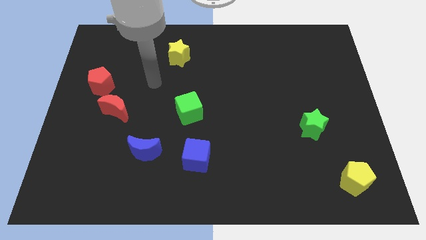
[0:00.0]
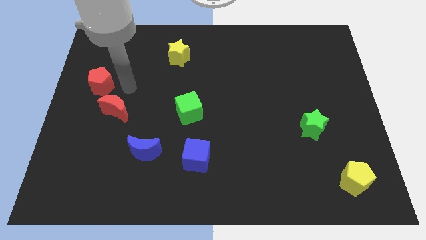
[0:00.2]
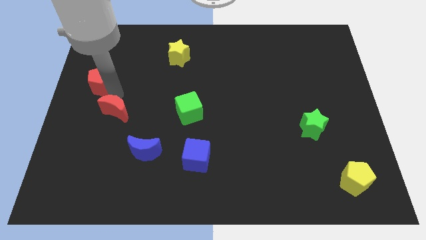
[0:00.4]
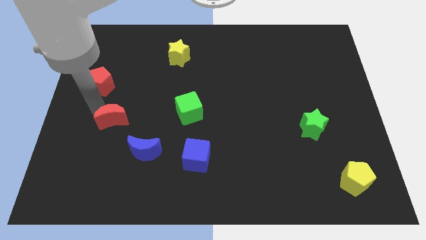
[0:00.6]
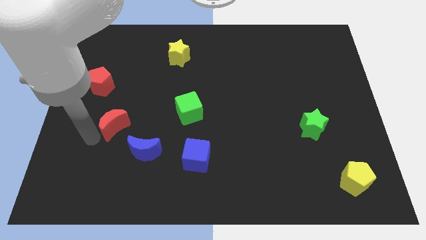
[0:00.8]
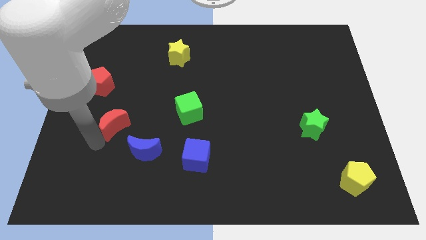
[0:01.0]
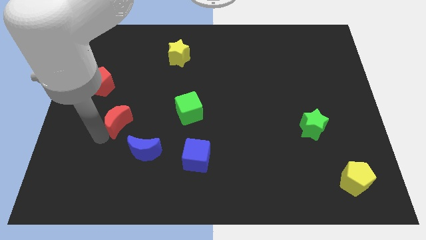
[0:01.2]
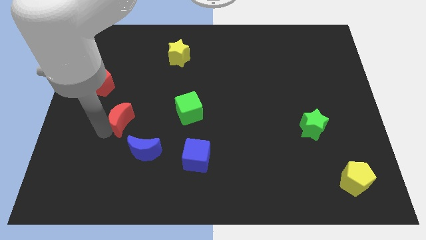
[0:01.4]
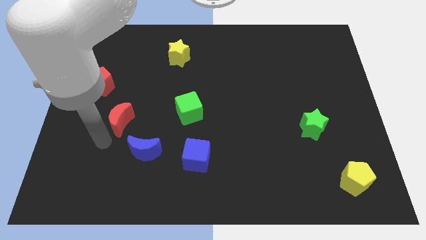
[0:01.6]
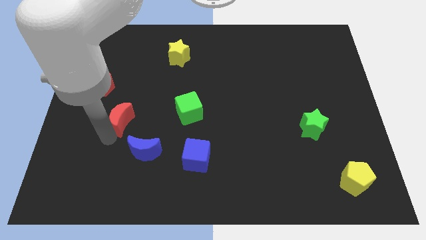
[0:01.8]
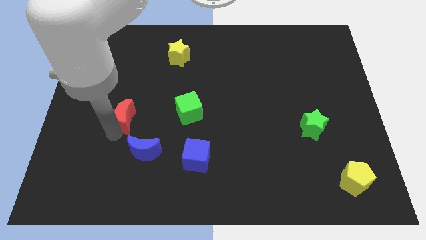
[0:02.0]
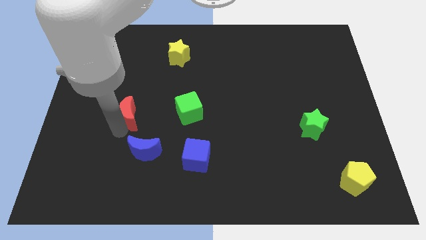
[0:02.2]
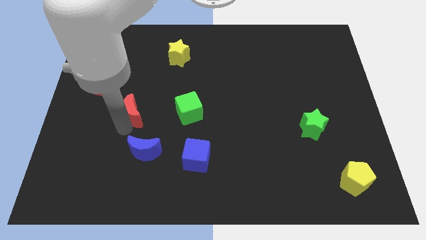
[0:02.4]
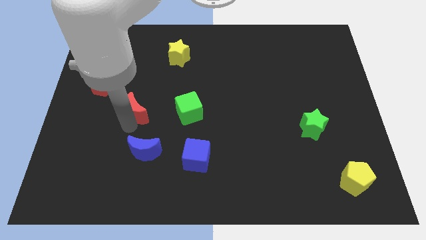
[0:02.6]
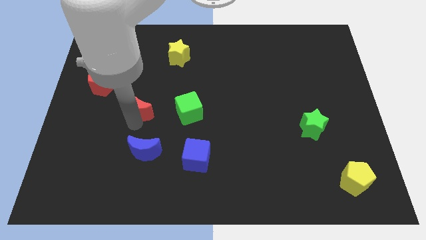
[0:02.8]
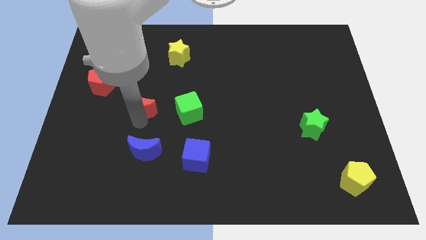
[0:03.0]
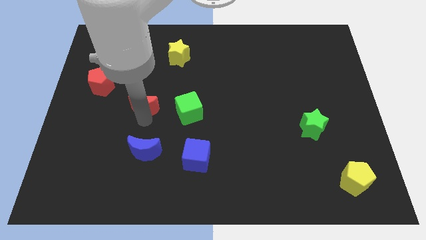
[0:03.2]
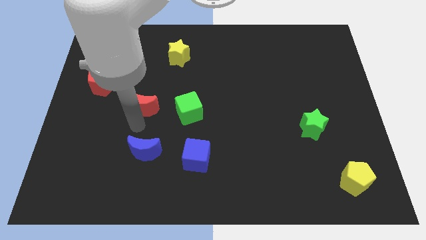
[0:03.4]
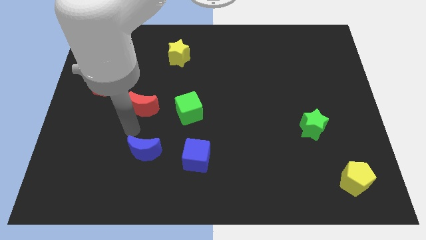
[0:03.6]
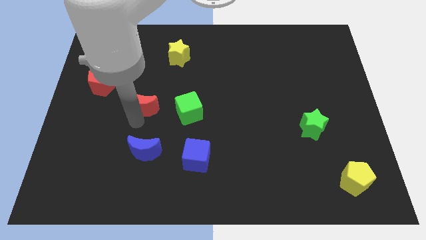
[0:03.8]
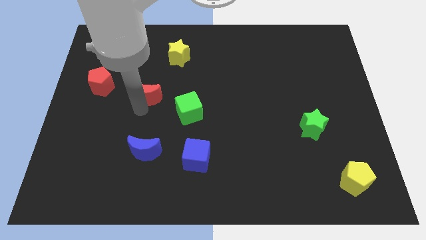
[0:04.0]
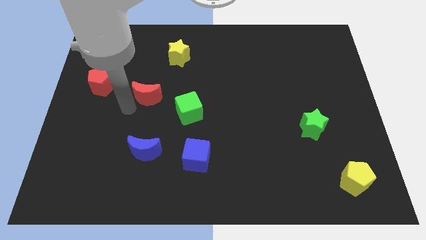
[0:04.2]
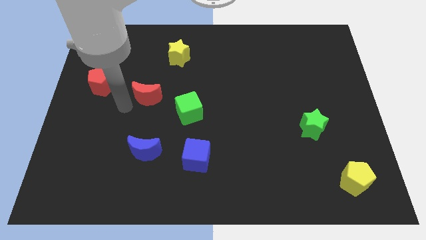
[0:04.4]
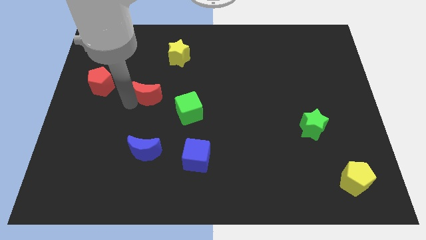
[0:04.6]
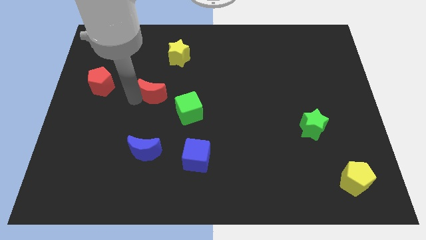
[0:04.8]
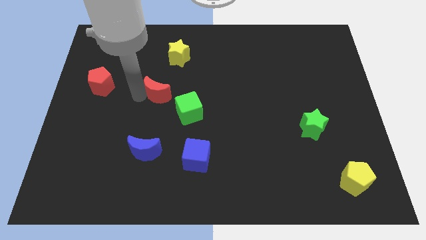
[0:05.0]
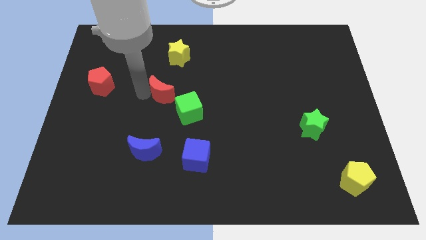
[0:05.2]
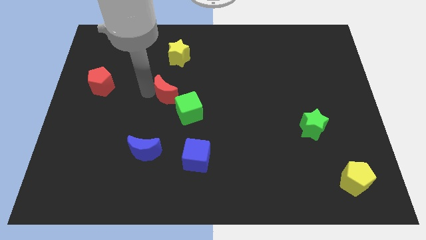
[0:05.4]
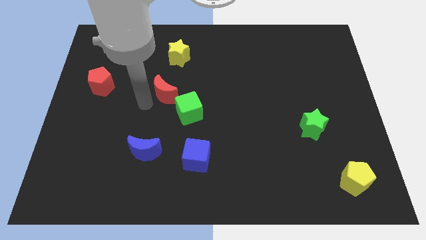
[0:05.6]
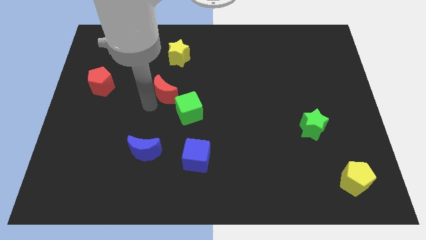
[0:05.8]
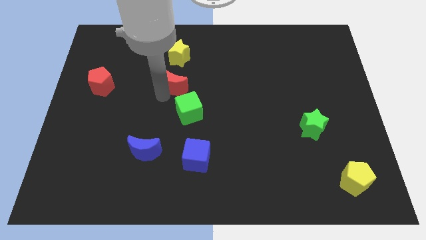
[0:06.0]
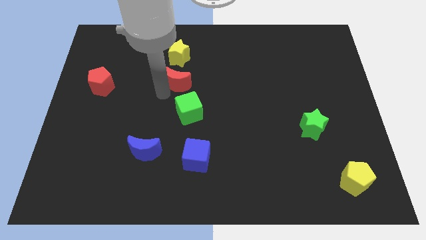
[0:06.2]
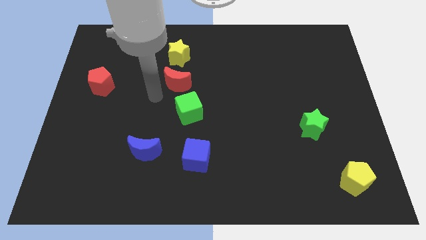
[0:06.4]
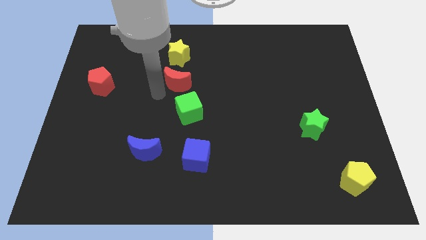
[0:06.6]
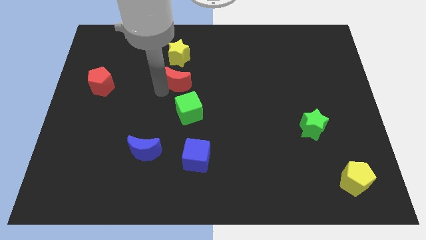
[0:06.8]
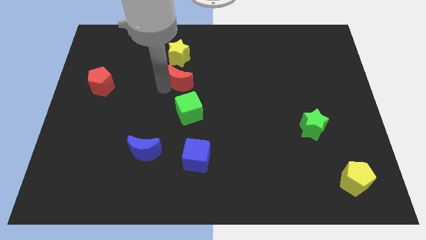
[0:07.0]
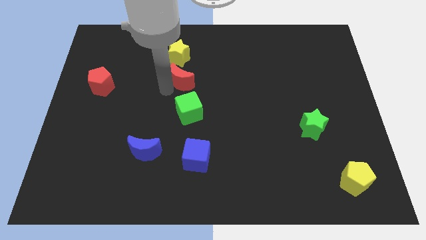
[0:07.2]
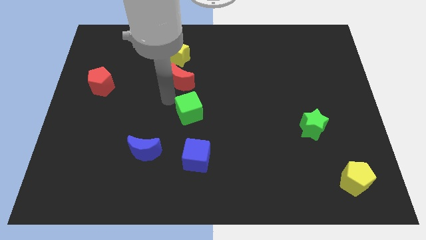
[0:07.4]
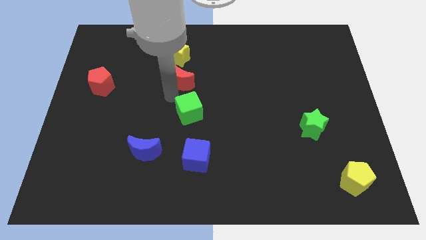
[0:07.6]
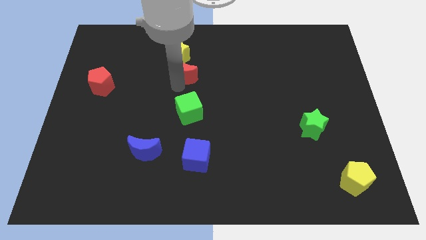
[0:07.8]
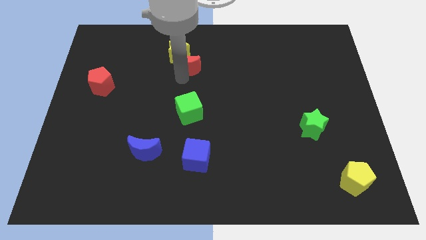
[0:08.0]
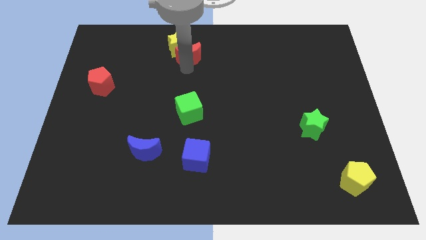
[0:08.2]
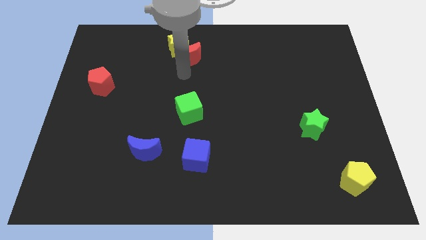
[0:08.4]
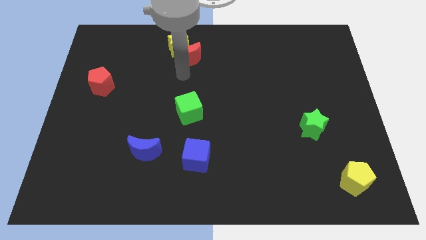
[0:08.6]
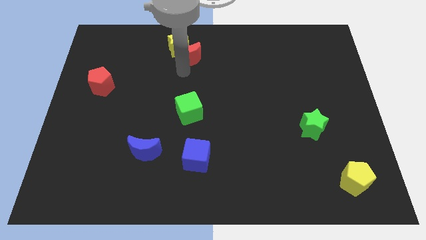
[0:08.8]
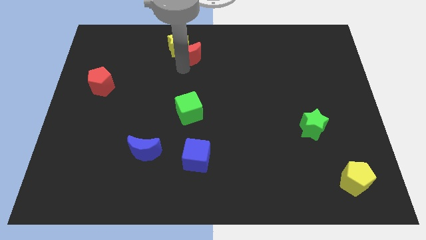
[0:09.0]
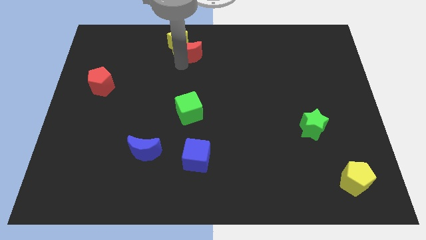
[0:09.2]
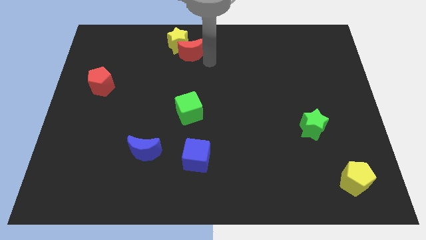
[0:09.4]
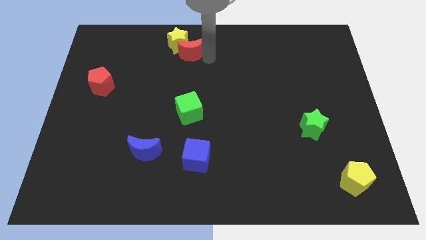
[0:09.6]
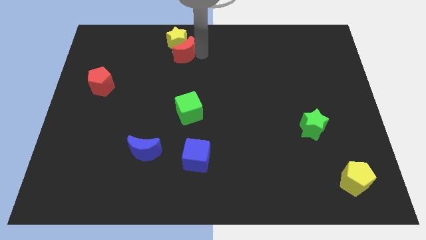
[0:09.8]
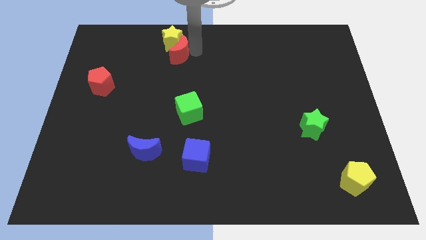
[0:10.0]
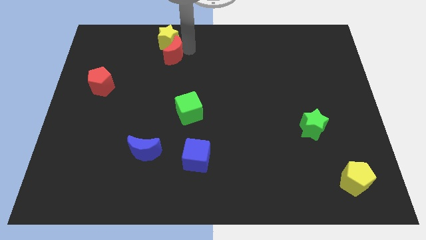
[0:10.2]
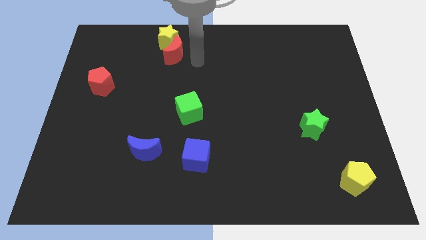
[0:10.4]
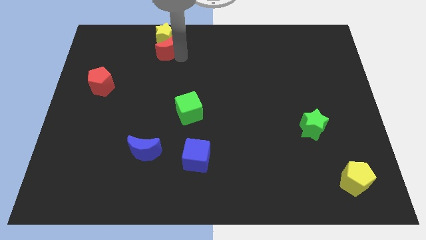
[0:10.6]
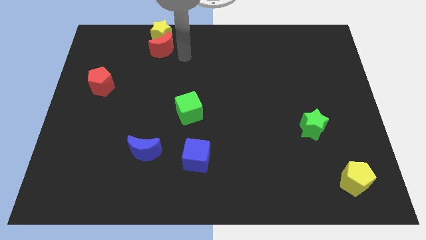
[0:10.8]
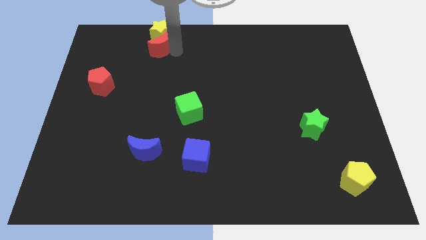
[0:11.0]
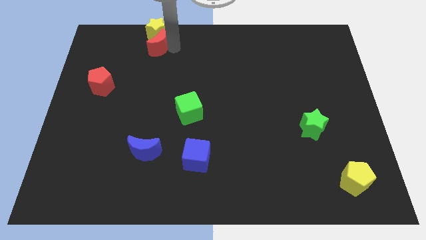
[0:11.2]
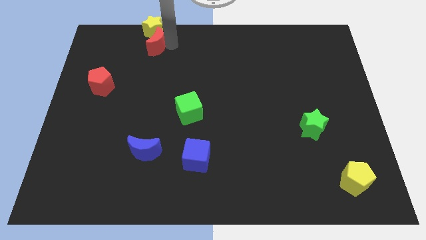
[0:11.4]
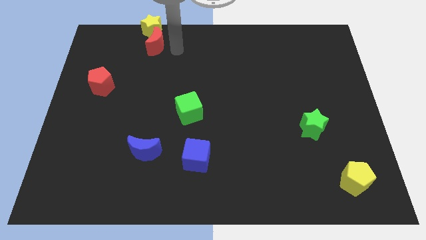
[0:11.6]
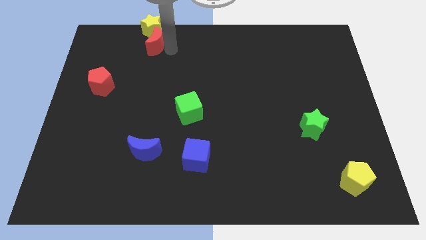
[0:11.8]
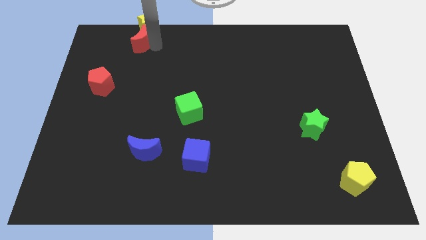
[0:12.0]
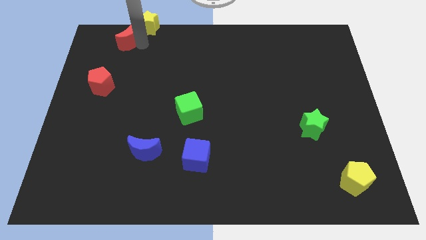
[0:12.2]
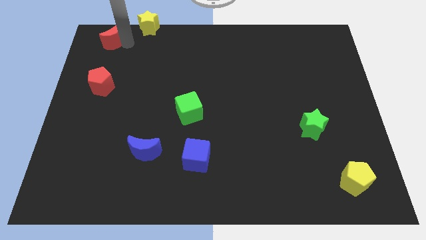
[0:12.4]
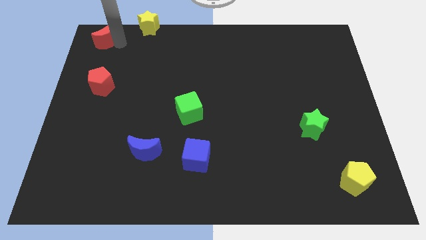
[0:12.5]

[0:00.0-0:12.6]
move the red moon to the top left

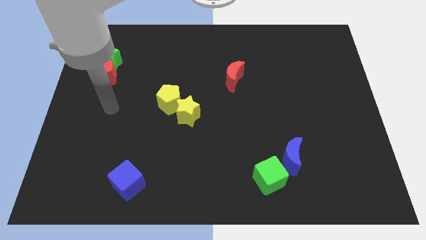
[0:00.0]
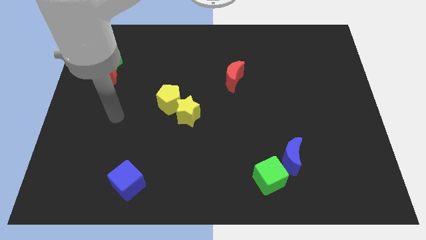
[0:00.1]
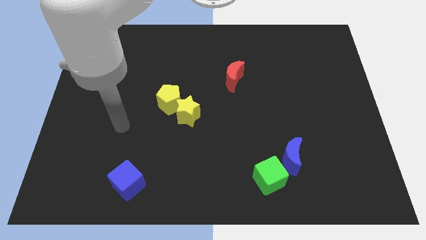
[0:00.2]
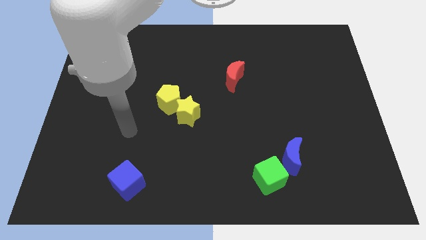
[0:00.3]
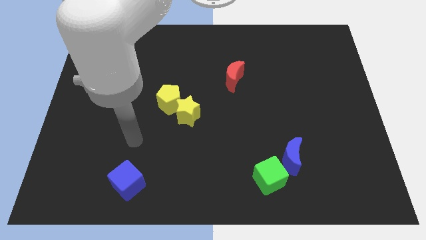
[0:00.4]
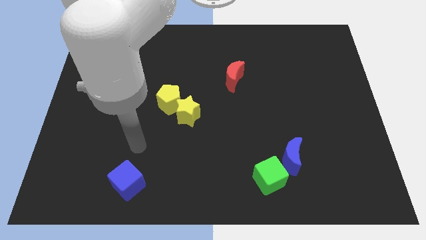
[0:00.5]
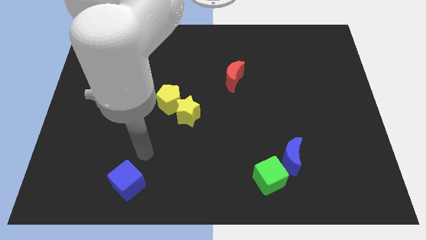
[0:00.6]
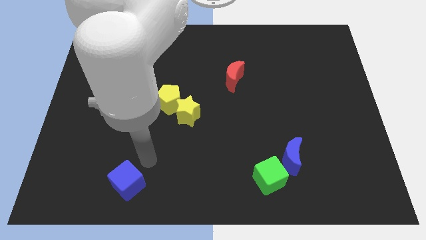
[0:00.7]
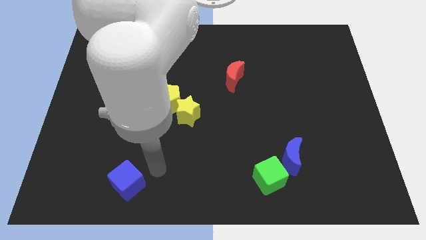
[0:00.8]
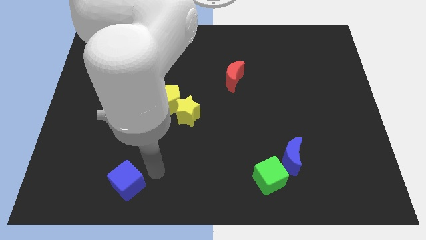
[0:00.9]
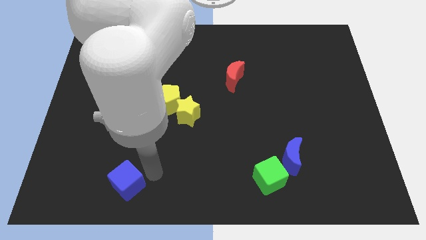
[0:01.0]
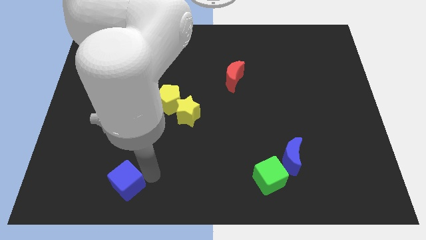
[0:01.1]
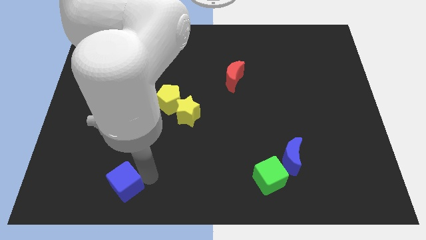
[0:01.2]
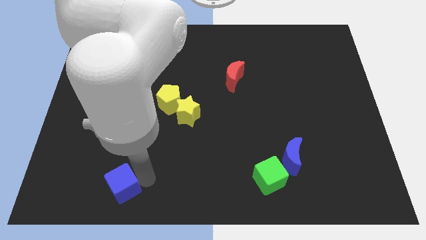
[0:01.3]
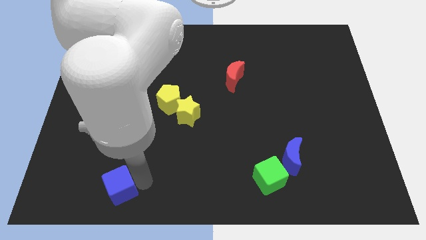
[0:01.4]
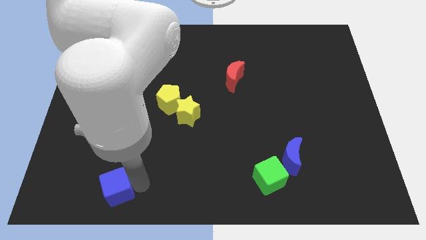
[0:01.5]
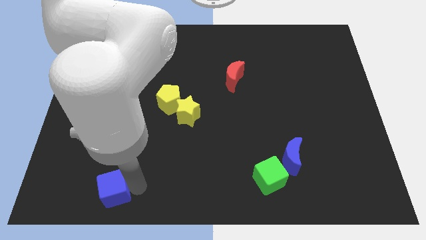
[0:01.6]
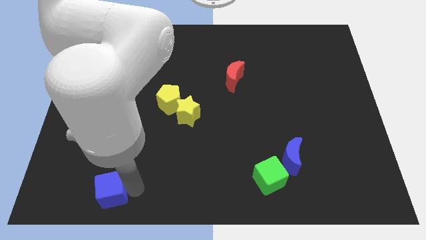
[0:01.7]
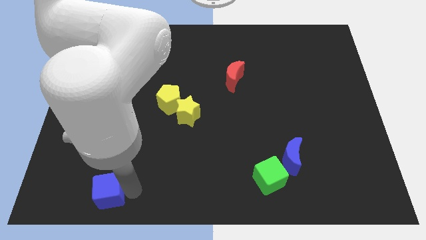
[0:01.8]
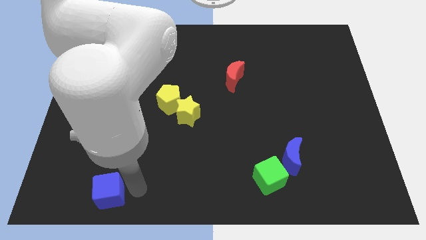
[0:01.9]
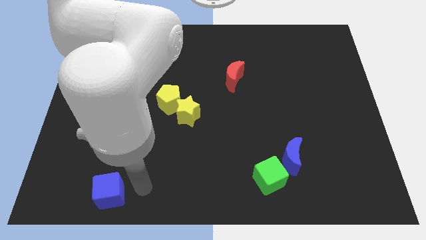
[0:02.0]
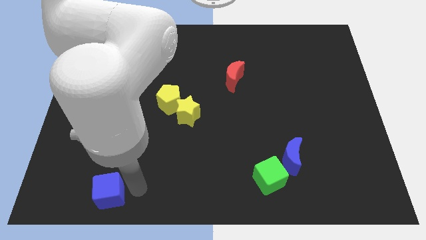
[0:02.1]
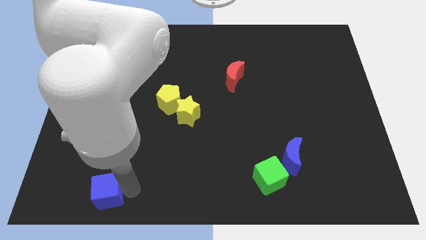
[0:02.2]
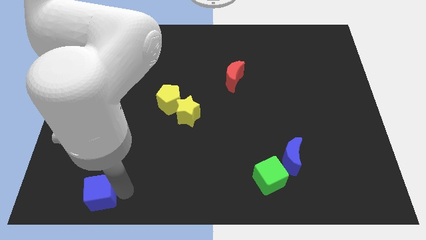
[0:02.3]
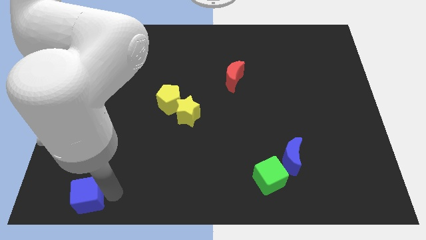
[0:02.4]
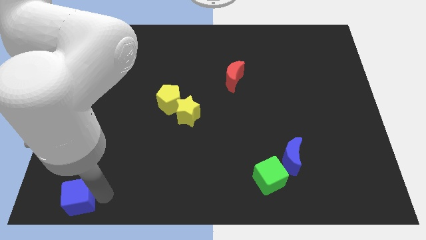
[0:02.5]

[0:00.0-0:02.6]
slide the blue cube to the bottom left of the board
